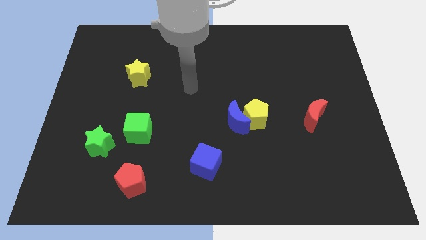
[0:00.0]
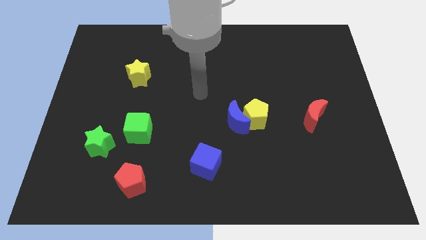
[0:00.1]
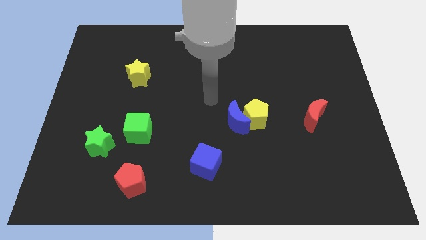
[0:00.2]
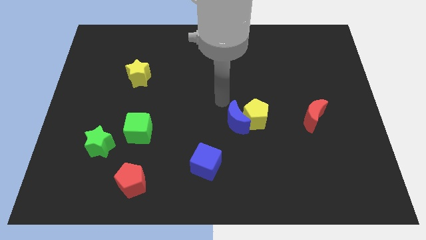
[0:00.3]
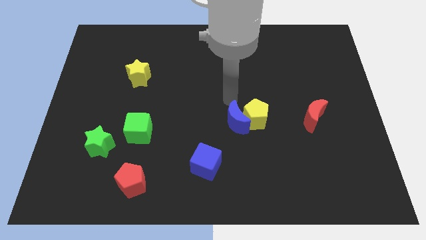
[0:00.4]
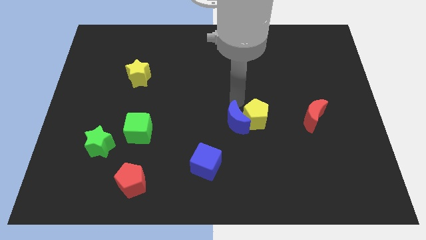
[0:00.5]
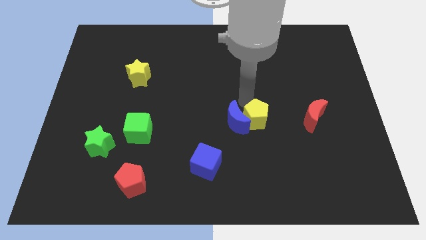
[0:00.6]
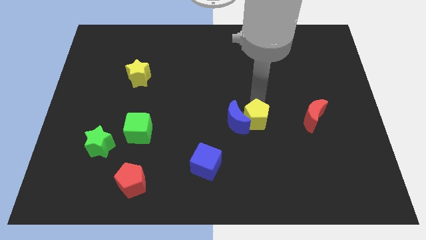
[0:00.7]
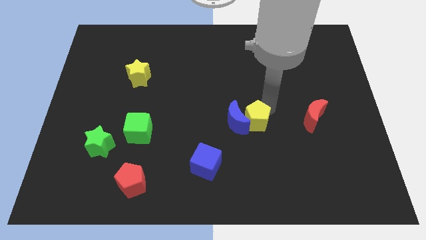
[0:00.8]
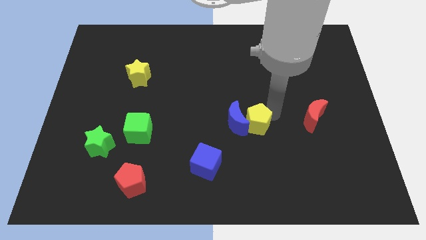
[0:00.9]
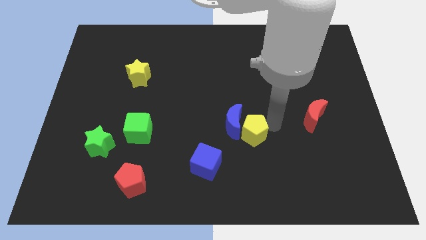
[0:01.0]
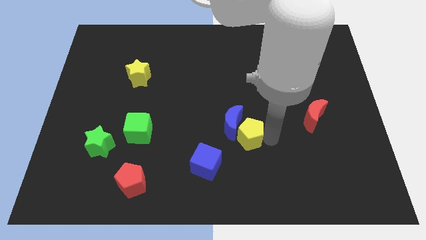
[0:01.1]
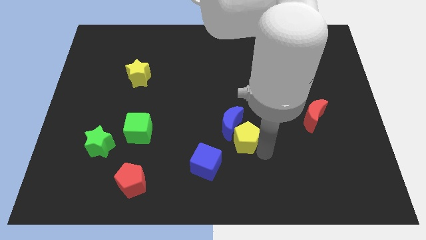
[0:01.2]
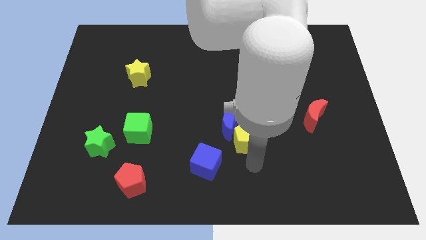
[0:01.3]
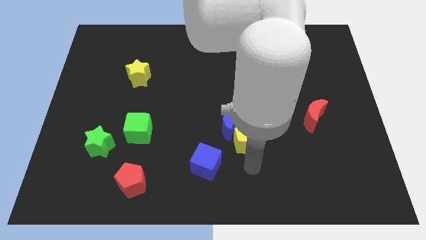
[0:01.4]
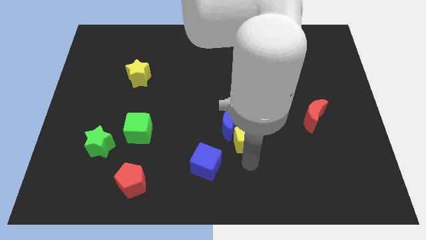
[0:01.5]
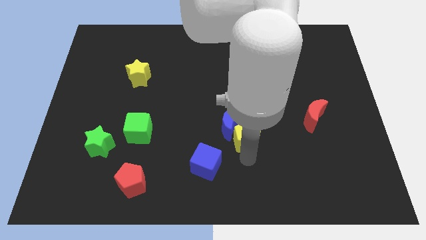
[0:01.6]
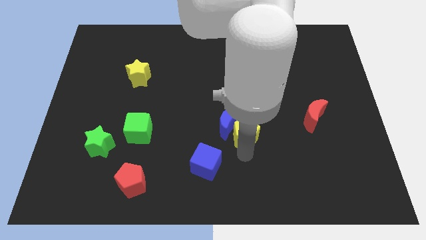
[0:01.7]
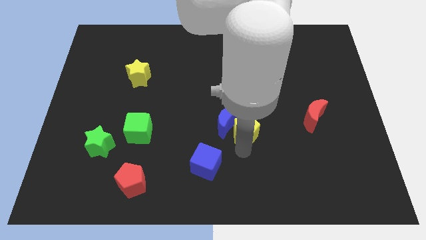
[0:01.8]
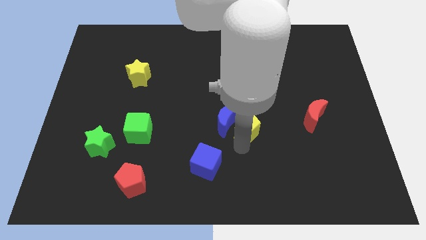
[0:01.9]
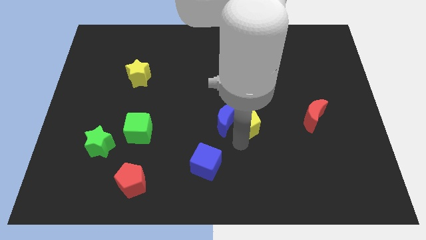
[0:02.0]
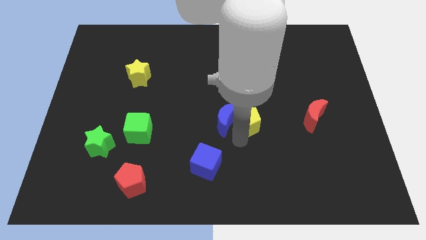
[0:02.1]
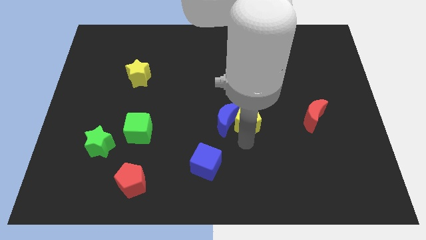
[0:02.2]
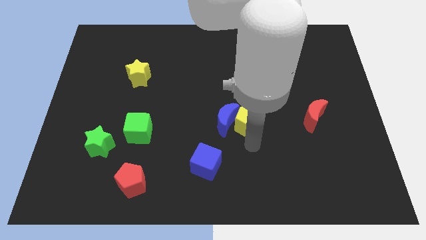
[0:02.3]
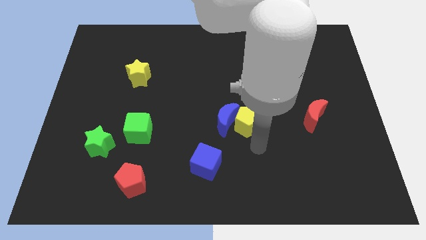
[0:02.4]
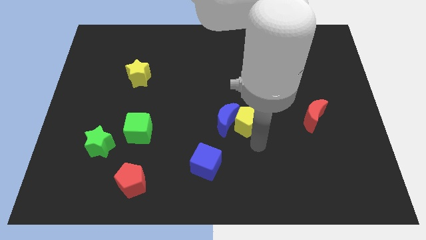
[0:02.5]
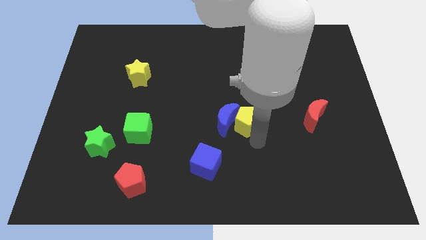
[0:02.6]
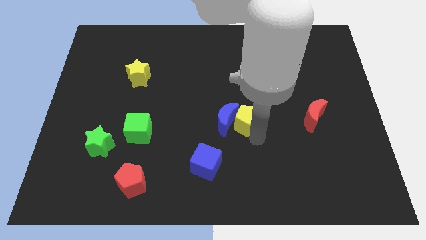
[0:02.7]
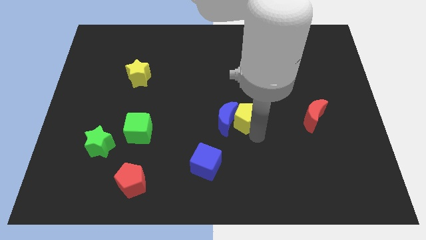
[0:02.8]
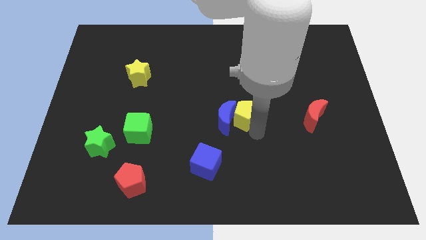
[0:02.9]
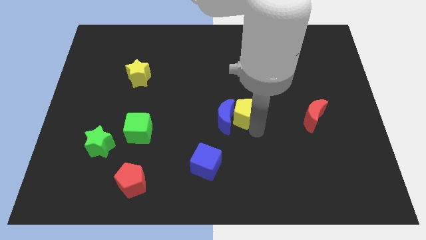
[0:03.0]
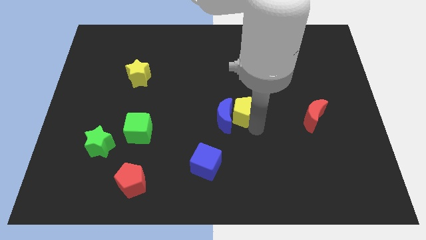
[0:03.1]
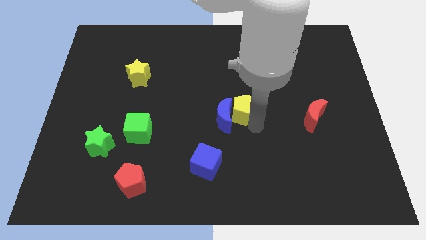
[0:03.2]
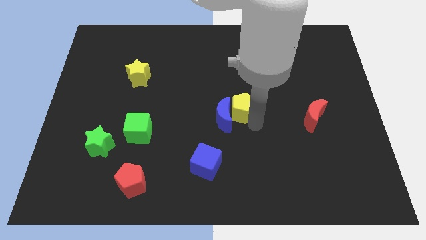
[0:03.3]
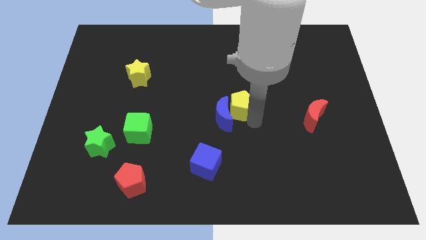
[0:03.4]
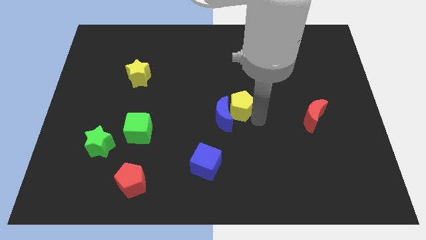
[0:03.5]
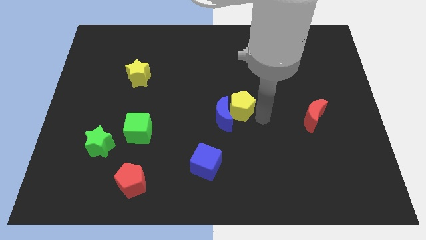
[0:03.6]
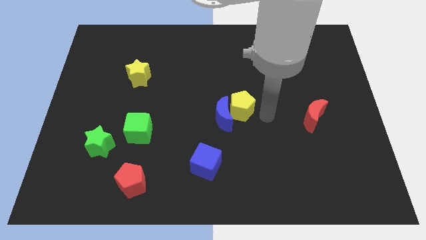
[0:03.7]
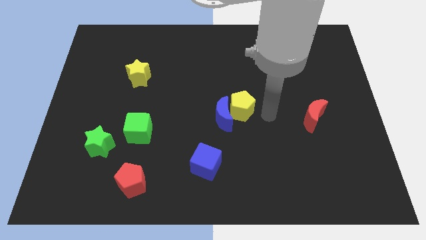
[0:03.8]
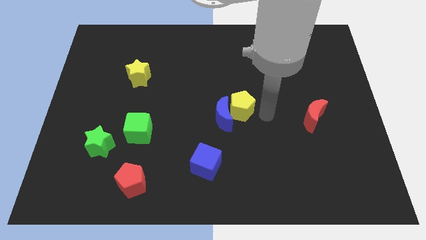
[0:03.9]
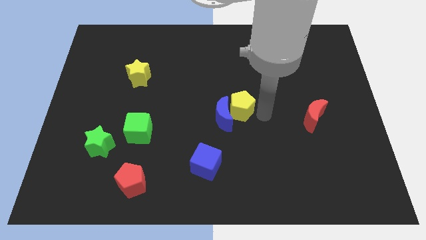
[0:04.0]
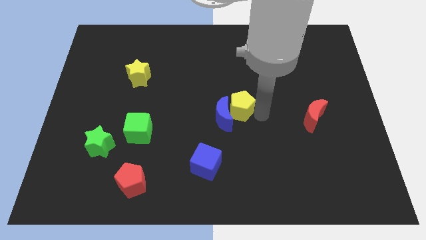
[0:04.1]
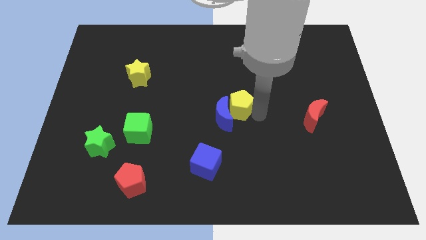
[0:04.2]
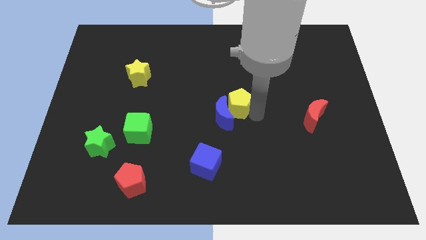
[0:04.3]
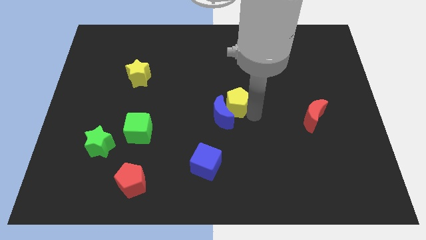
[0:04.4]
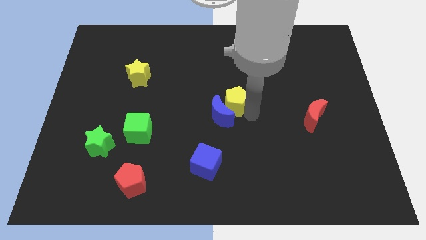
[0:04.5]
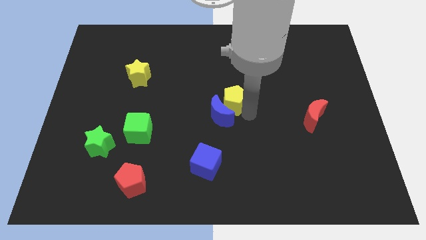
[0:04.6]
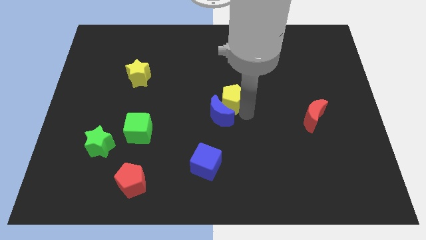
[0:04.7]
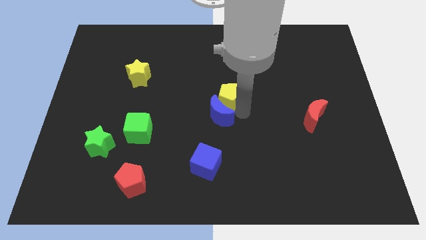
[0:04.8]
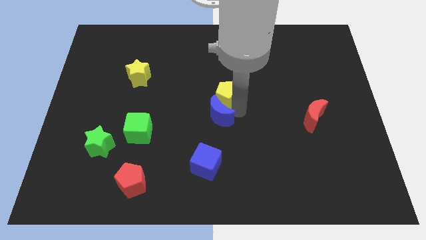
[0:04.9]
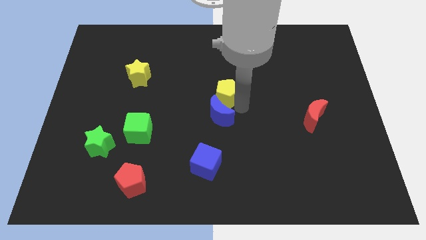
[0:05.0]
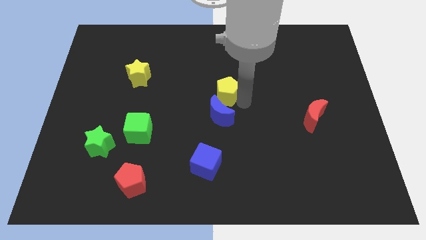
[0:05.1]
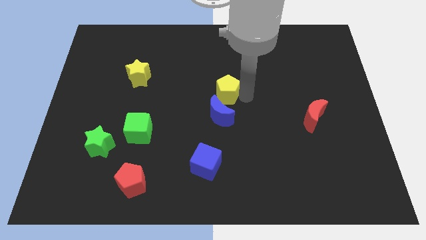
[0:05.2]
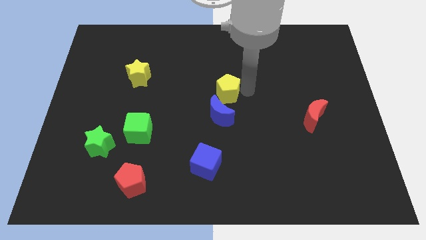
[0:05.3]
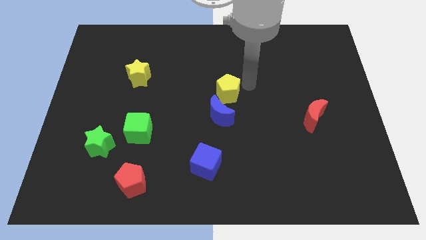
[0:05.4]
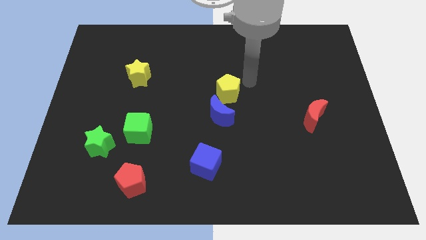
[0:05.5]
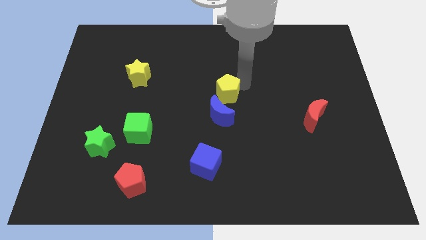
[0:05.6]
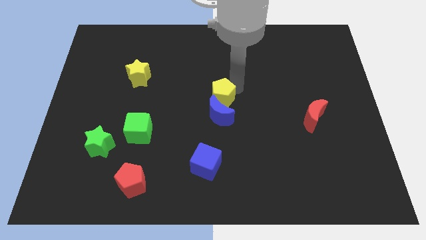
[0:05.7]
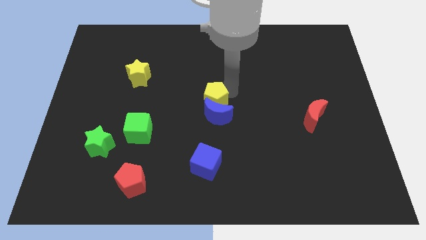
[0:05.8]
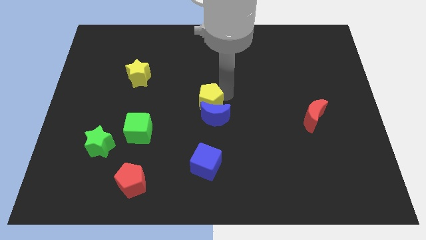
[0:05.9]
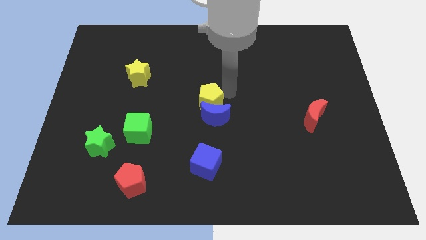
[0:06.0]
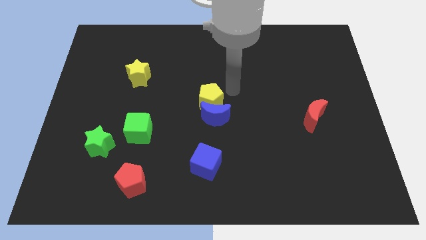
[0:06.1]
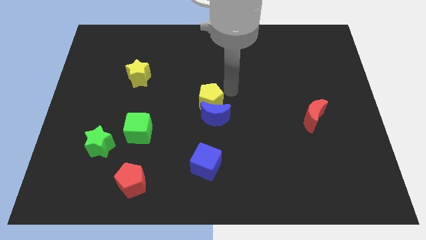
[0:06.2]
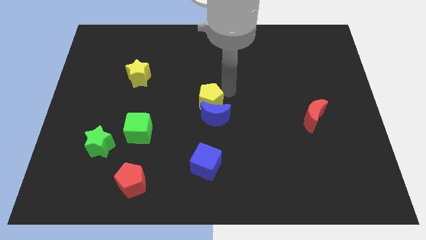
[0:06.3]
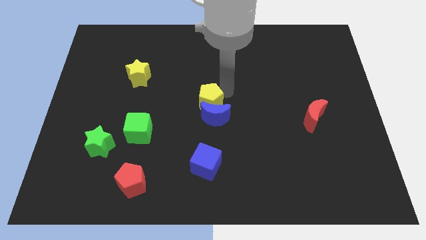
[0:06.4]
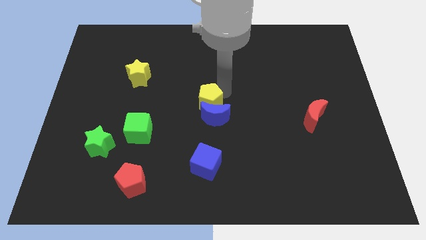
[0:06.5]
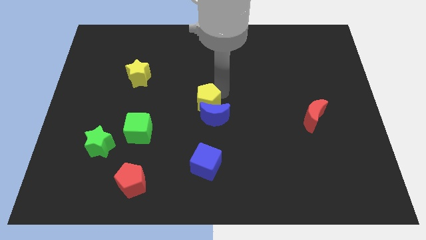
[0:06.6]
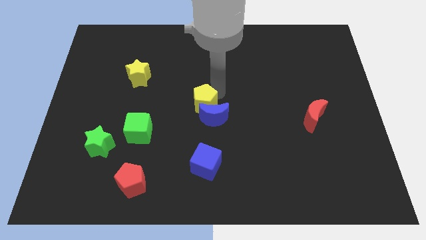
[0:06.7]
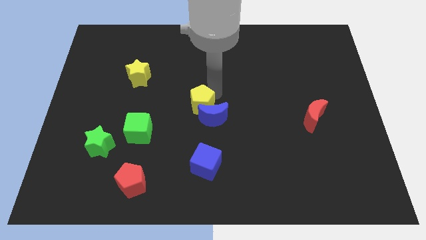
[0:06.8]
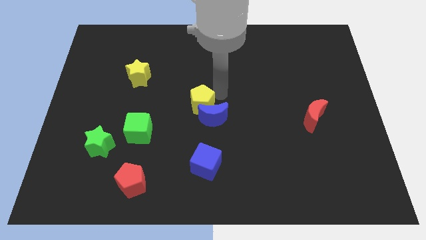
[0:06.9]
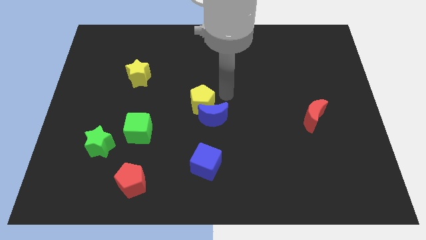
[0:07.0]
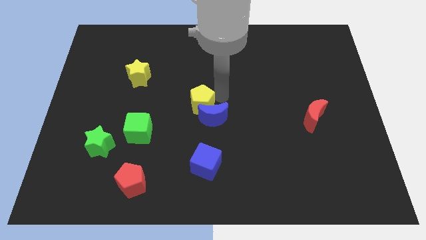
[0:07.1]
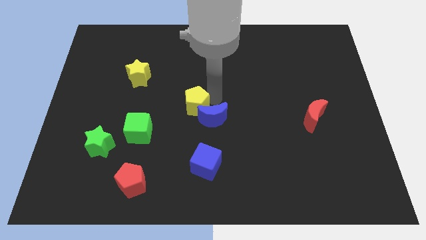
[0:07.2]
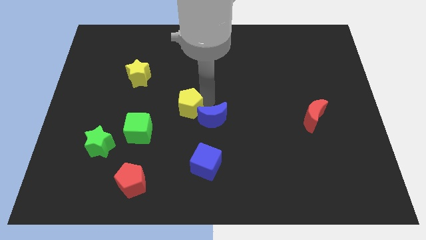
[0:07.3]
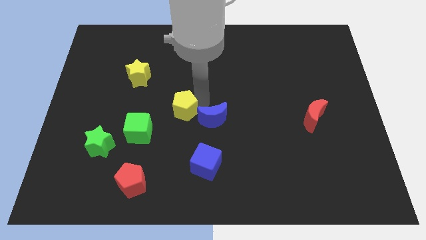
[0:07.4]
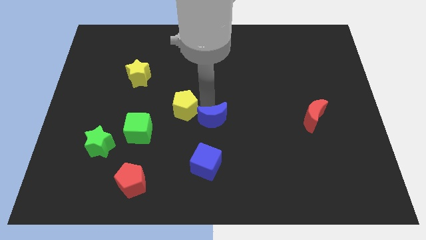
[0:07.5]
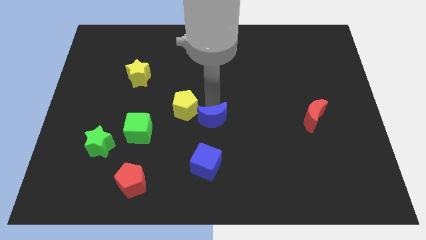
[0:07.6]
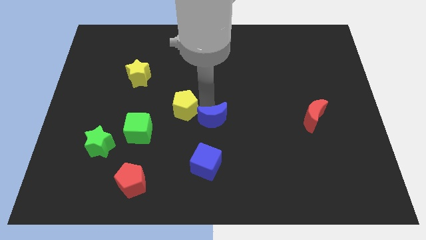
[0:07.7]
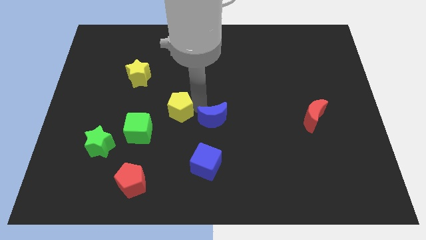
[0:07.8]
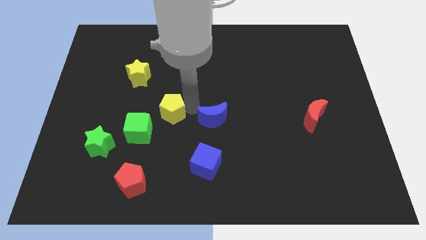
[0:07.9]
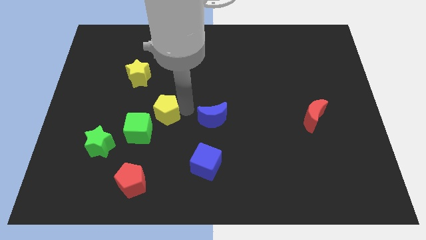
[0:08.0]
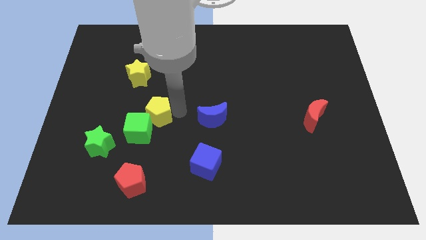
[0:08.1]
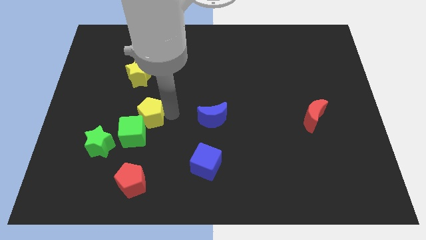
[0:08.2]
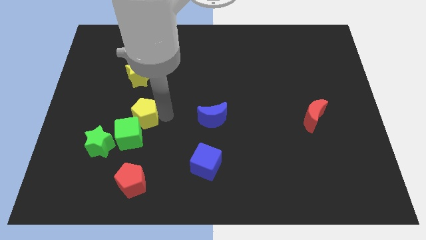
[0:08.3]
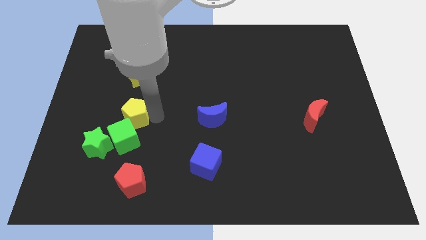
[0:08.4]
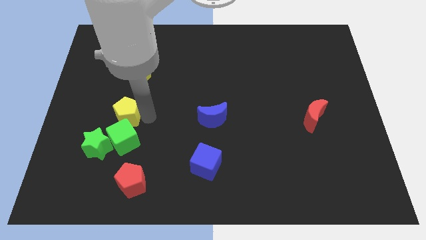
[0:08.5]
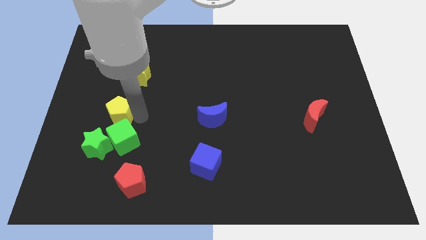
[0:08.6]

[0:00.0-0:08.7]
push the yellow pentagon to the top of the green star
